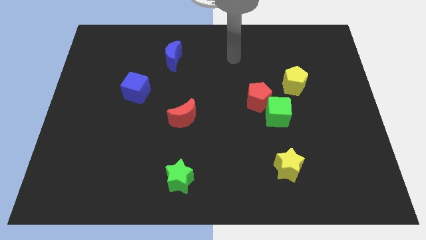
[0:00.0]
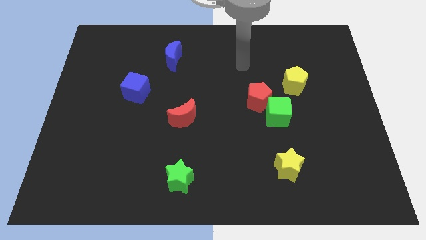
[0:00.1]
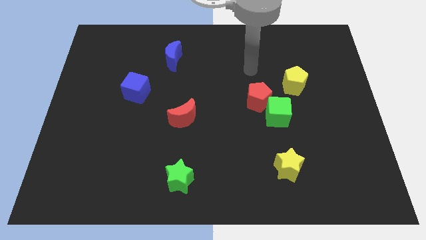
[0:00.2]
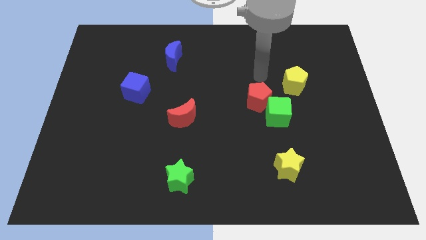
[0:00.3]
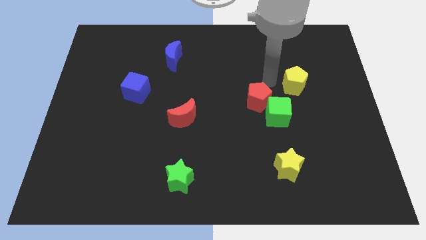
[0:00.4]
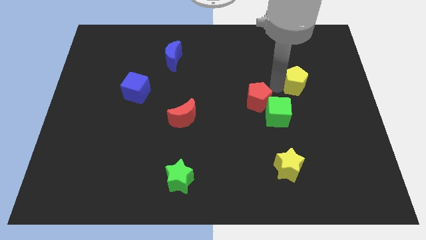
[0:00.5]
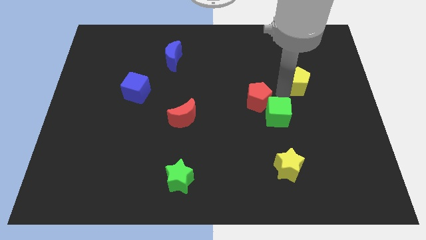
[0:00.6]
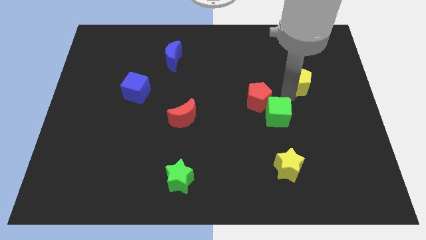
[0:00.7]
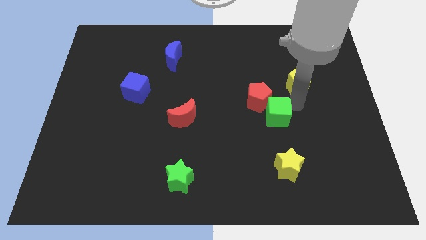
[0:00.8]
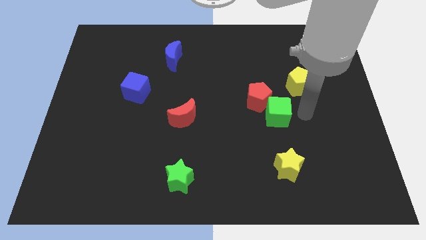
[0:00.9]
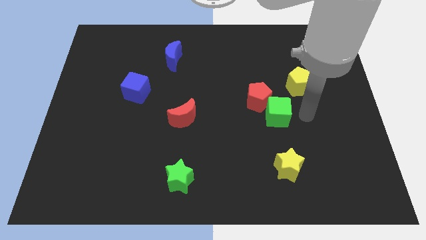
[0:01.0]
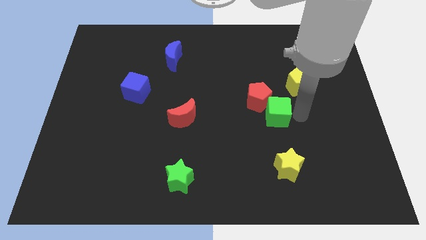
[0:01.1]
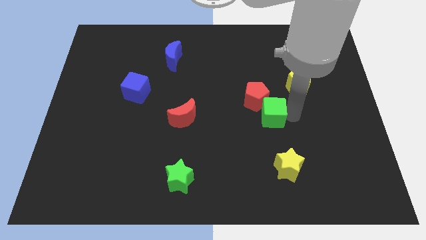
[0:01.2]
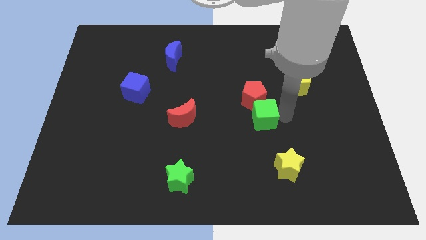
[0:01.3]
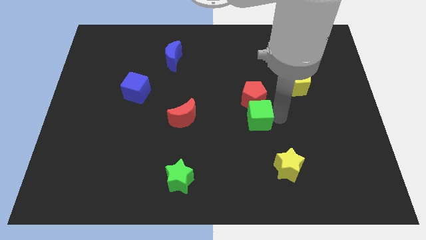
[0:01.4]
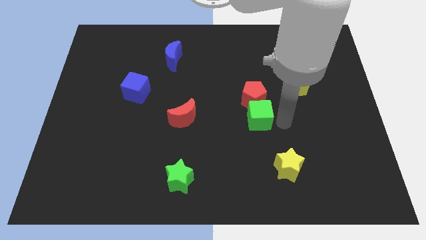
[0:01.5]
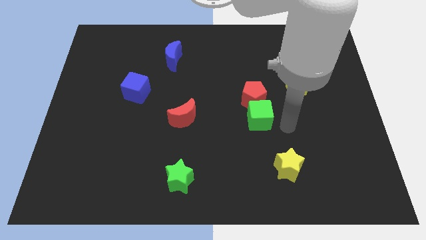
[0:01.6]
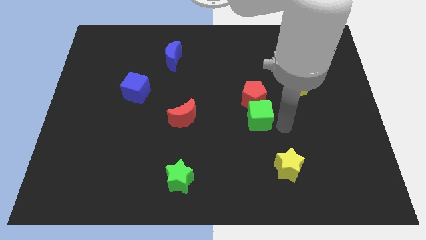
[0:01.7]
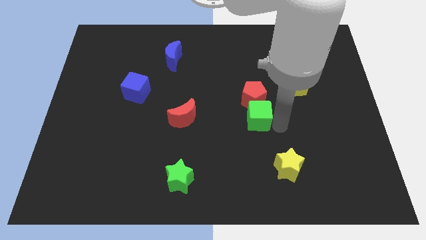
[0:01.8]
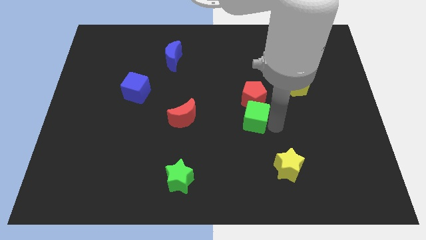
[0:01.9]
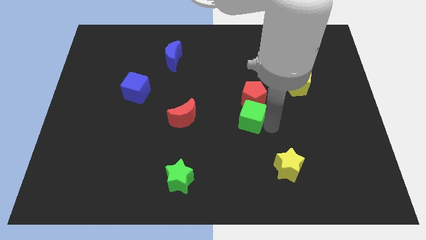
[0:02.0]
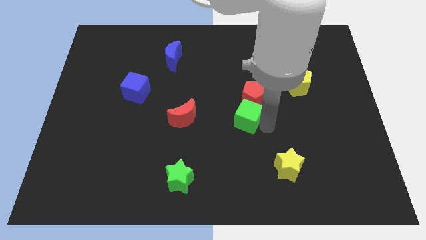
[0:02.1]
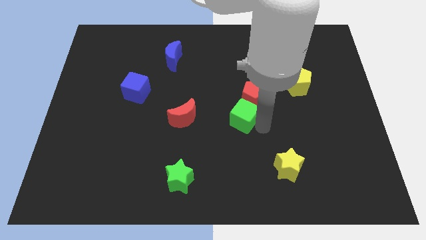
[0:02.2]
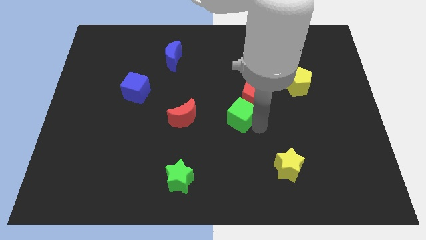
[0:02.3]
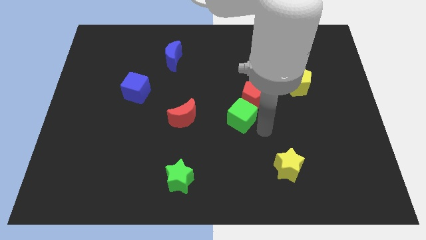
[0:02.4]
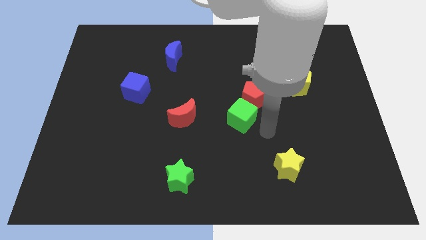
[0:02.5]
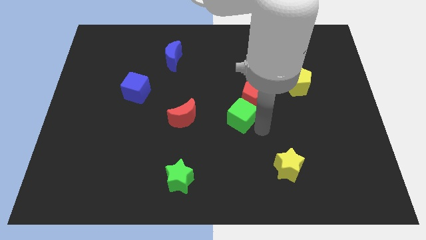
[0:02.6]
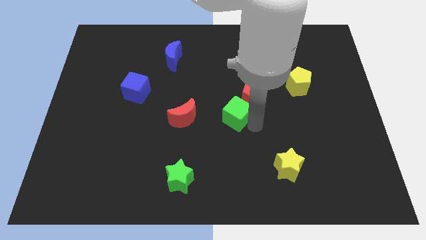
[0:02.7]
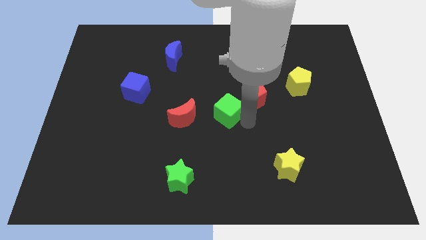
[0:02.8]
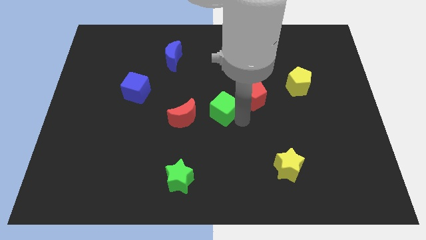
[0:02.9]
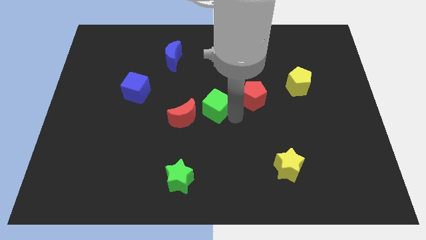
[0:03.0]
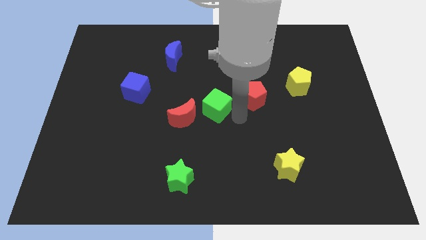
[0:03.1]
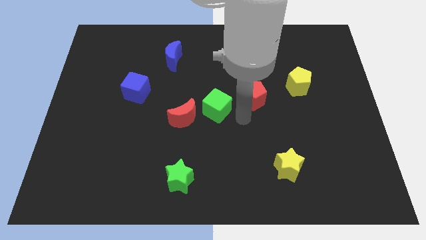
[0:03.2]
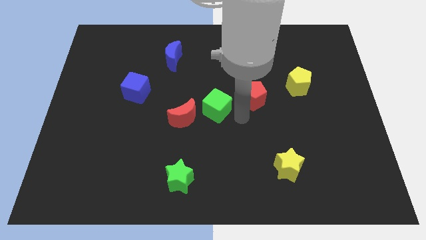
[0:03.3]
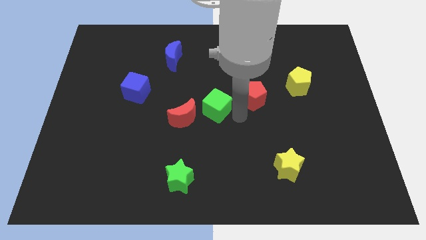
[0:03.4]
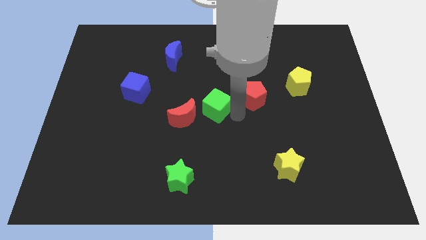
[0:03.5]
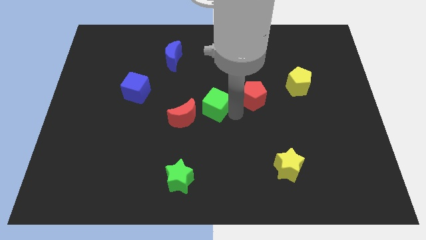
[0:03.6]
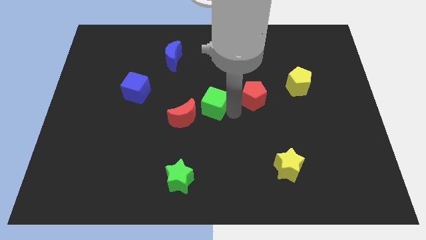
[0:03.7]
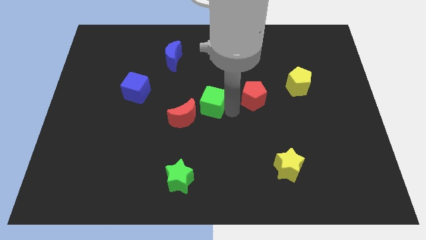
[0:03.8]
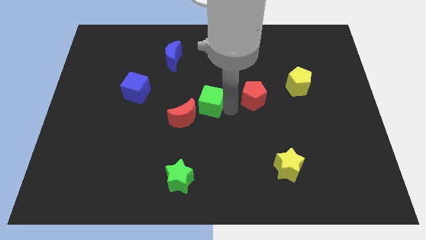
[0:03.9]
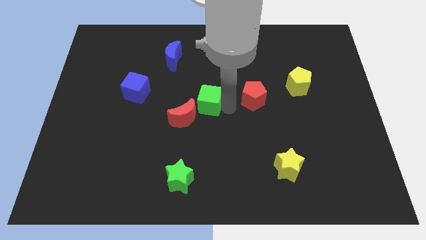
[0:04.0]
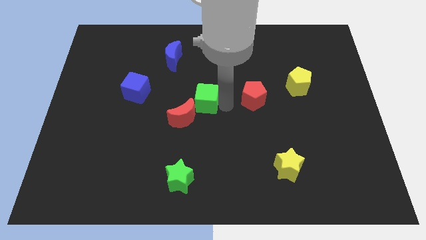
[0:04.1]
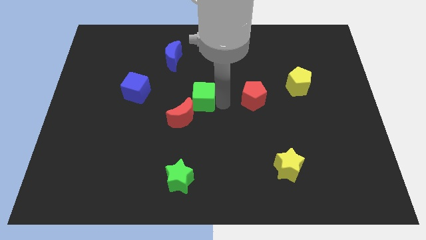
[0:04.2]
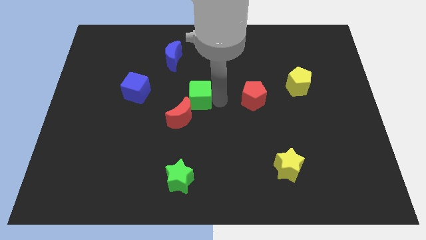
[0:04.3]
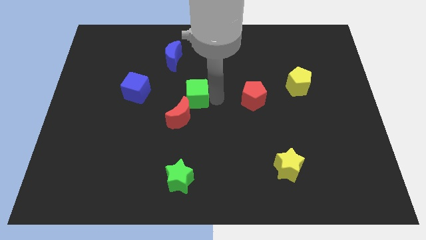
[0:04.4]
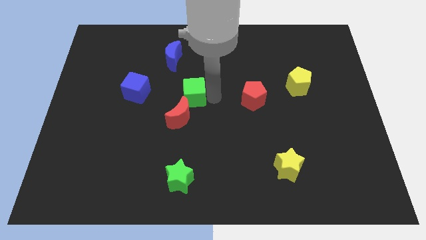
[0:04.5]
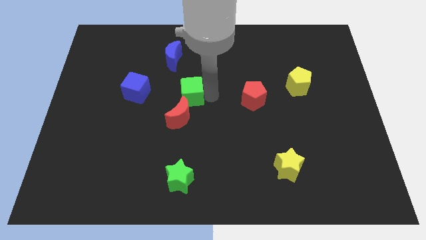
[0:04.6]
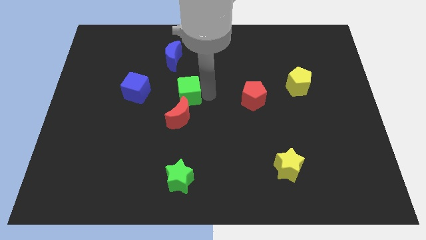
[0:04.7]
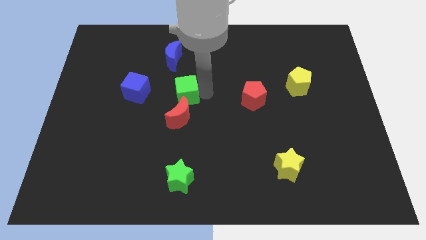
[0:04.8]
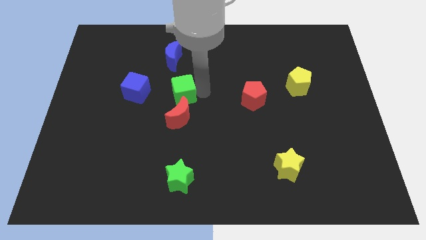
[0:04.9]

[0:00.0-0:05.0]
slide the green cube left

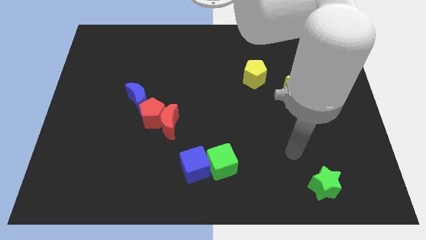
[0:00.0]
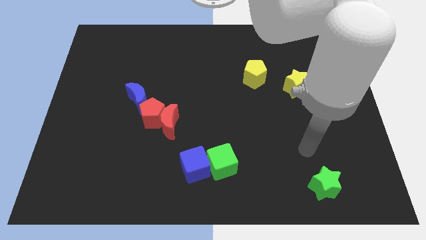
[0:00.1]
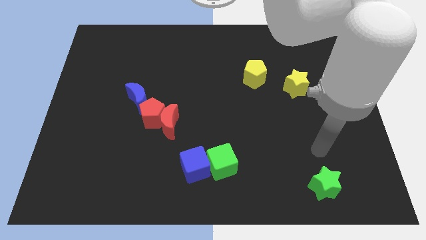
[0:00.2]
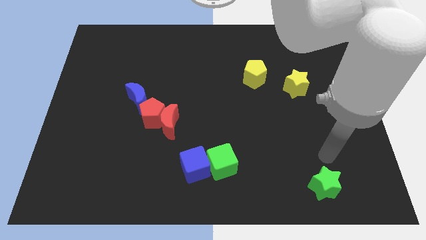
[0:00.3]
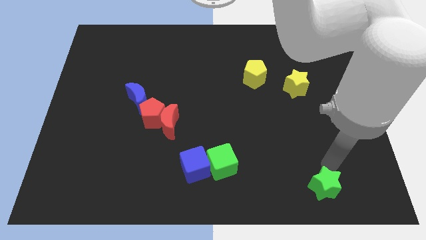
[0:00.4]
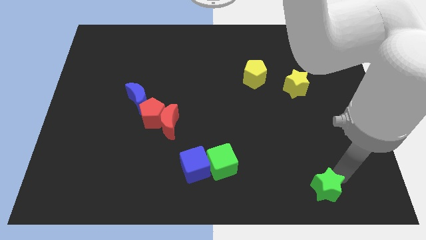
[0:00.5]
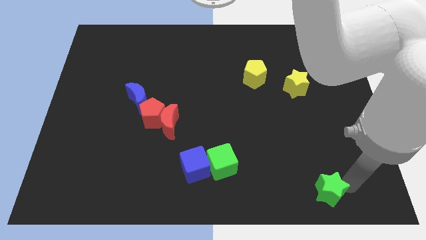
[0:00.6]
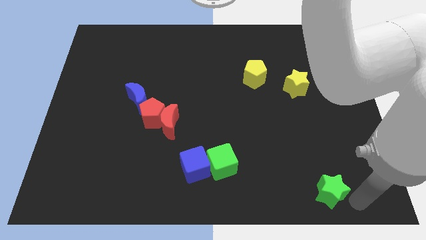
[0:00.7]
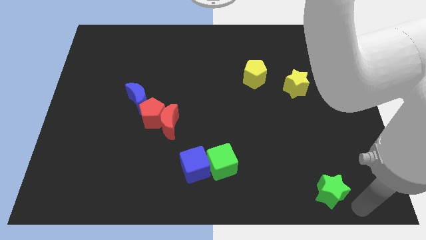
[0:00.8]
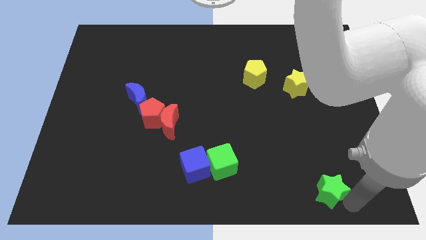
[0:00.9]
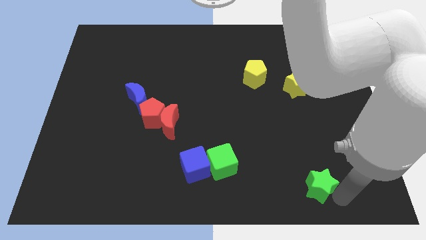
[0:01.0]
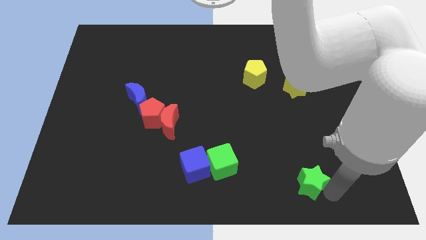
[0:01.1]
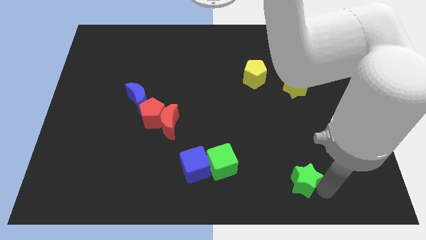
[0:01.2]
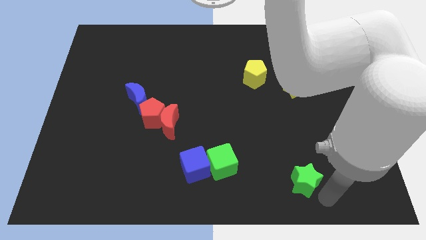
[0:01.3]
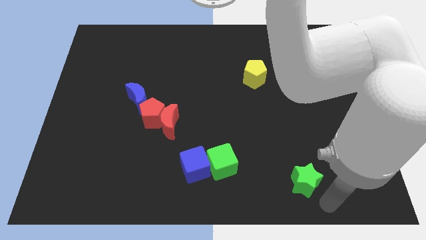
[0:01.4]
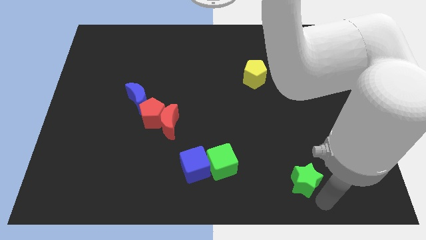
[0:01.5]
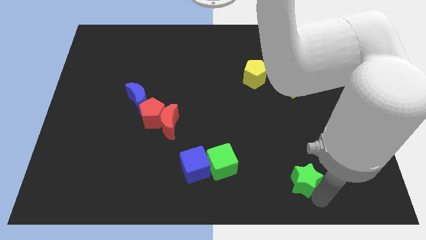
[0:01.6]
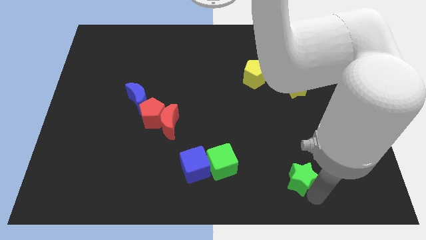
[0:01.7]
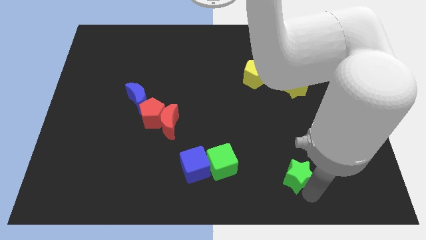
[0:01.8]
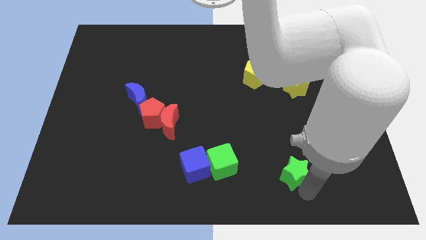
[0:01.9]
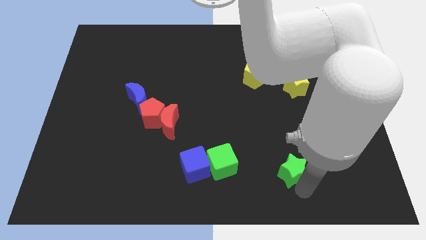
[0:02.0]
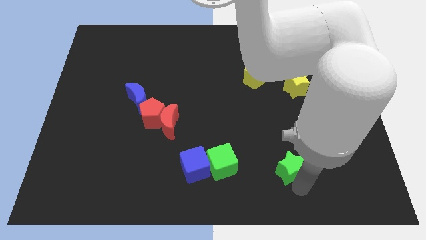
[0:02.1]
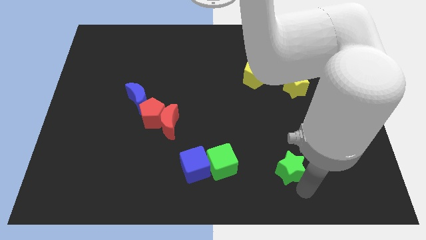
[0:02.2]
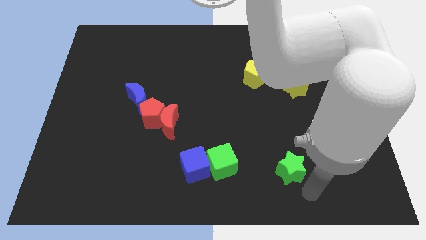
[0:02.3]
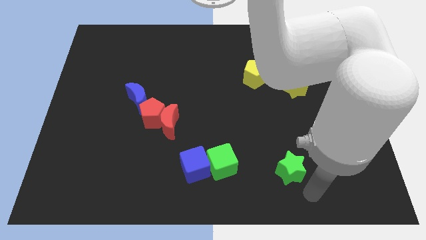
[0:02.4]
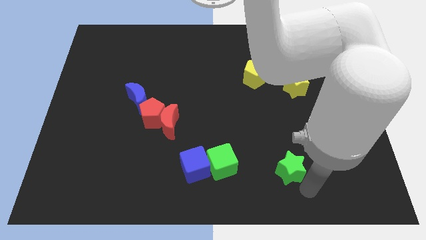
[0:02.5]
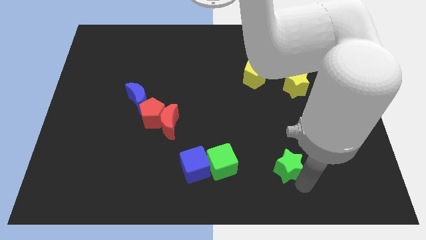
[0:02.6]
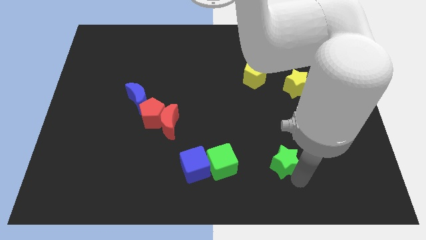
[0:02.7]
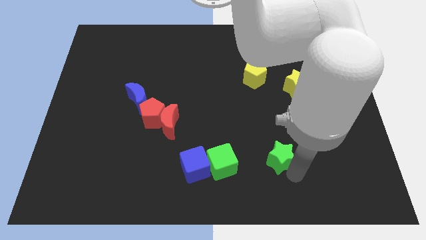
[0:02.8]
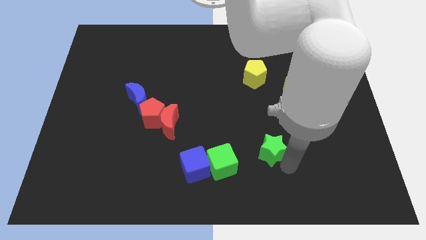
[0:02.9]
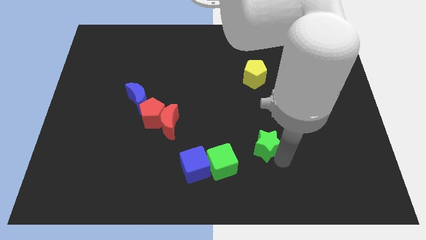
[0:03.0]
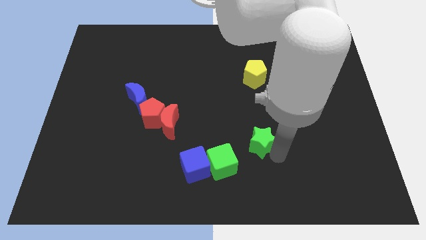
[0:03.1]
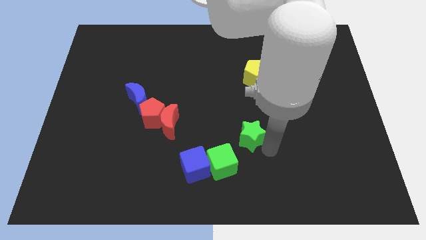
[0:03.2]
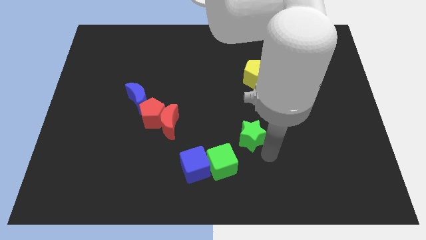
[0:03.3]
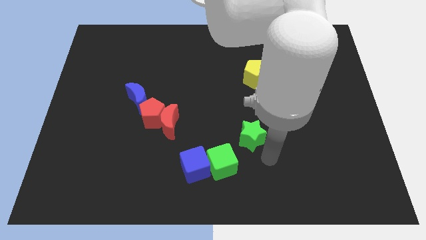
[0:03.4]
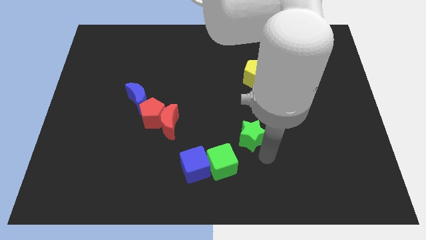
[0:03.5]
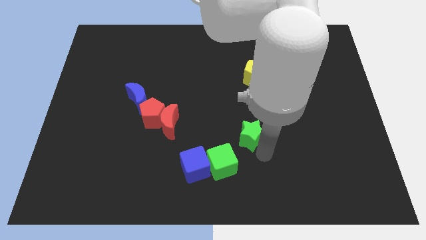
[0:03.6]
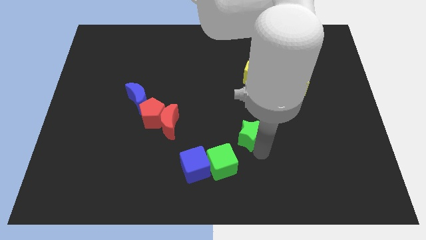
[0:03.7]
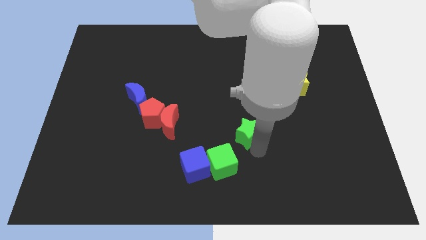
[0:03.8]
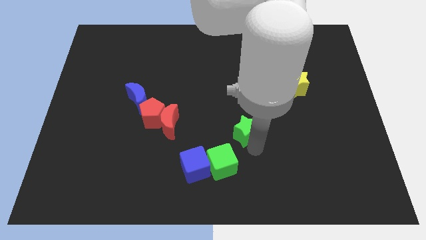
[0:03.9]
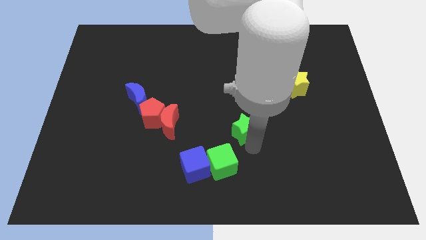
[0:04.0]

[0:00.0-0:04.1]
move the green star diagonally upwards and left
